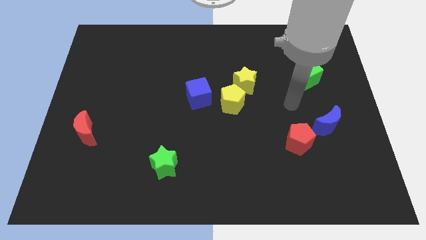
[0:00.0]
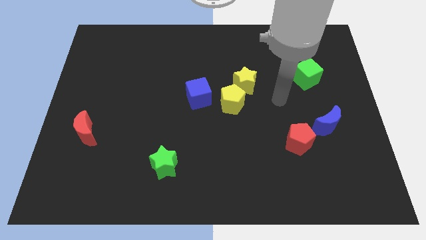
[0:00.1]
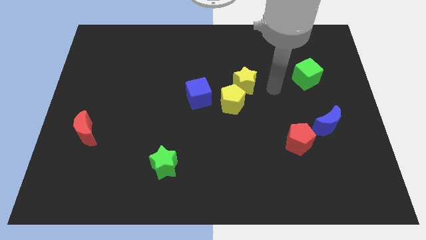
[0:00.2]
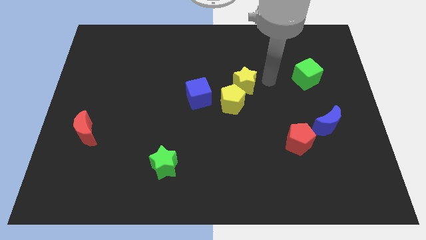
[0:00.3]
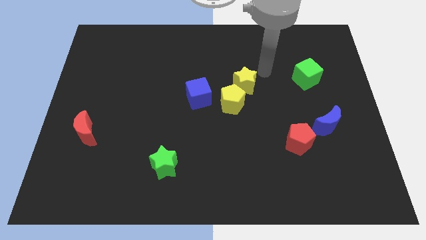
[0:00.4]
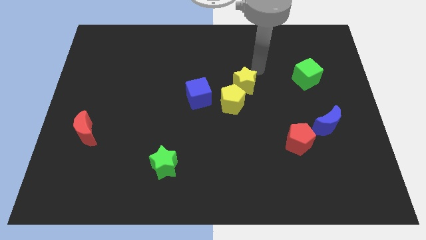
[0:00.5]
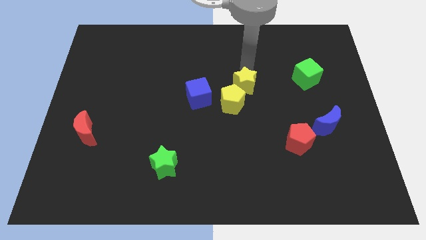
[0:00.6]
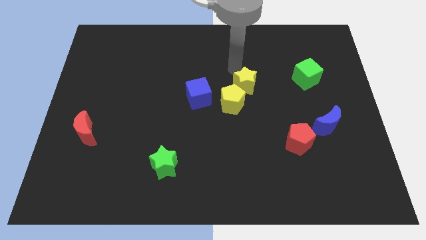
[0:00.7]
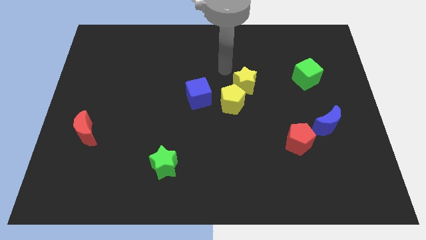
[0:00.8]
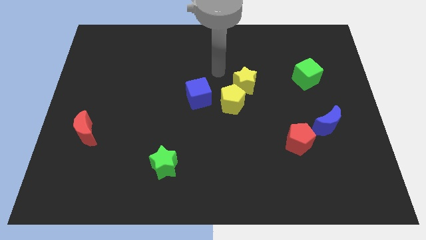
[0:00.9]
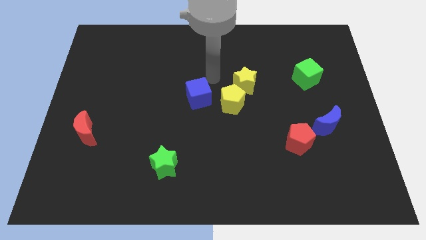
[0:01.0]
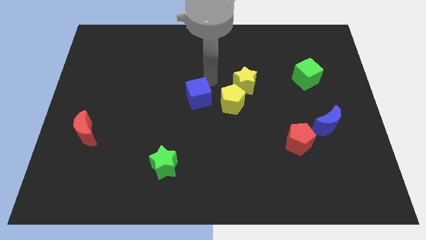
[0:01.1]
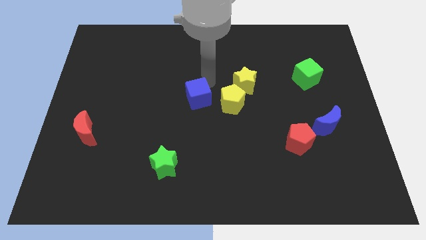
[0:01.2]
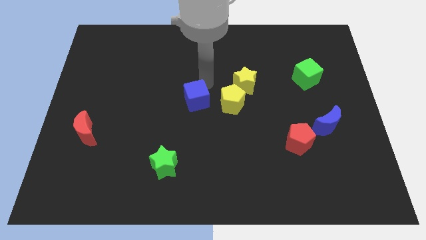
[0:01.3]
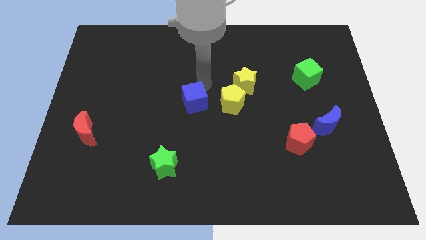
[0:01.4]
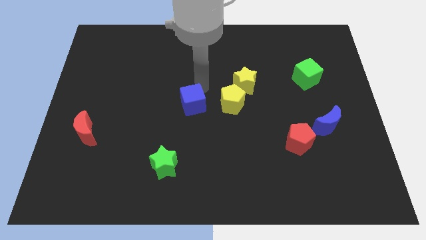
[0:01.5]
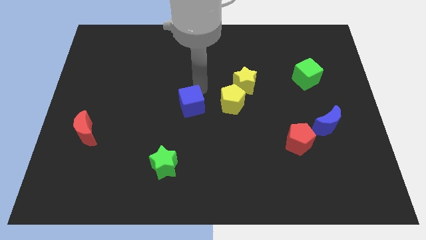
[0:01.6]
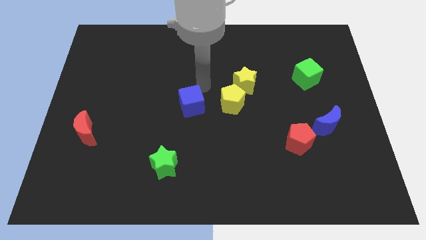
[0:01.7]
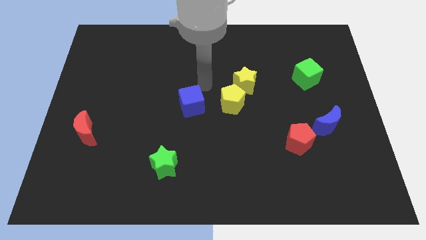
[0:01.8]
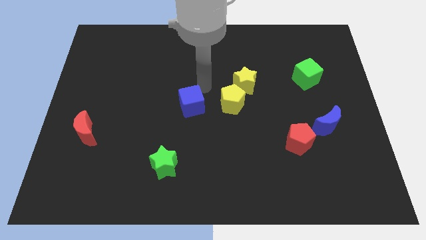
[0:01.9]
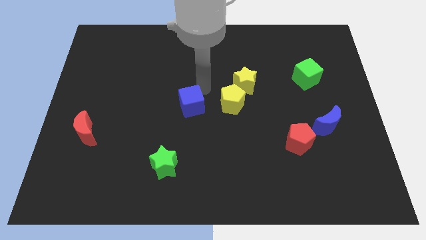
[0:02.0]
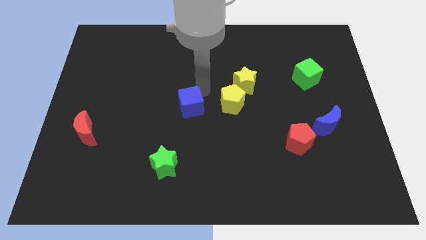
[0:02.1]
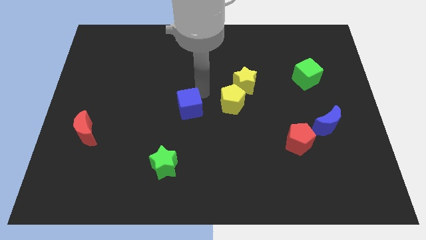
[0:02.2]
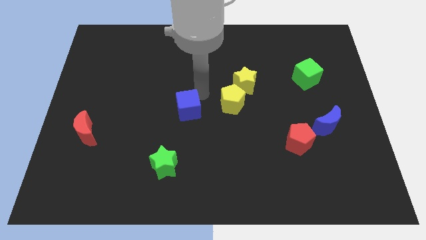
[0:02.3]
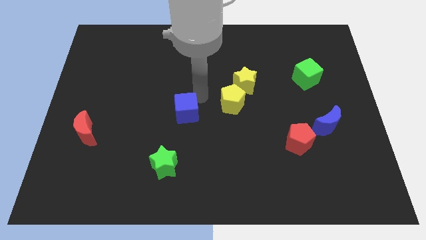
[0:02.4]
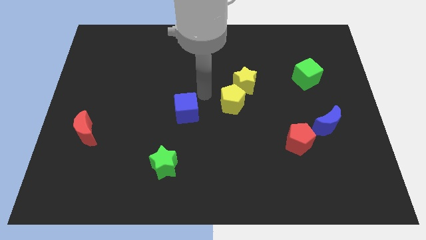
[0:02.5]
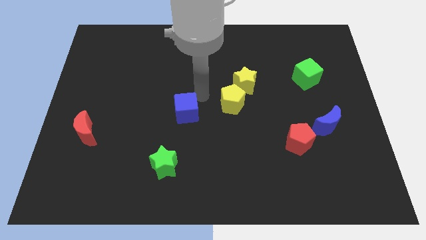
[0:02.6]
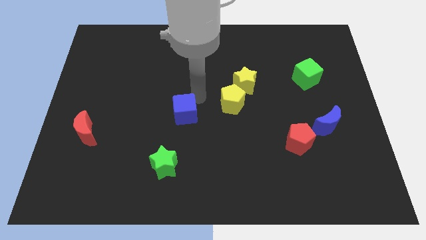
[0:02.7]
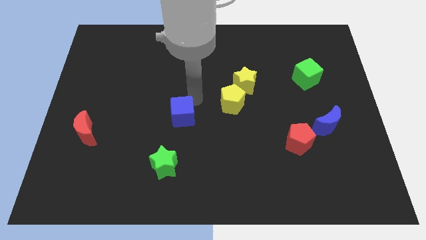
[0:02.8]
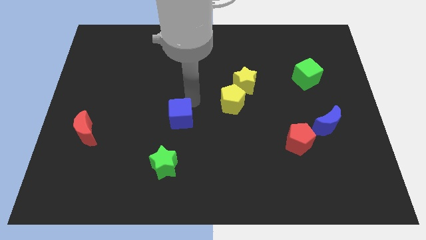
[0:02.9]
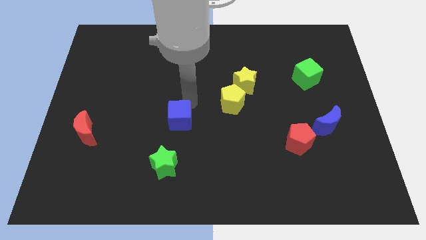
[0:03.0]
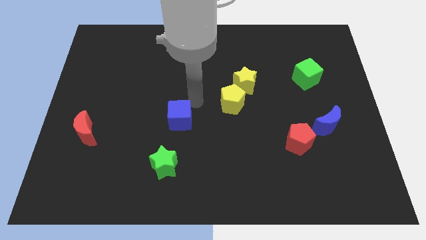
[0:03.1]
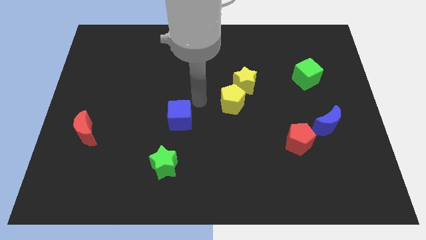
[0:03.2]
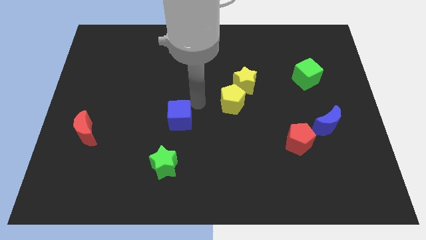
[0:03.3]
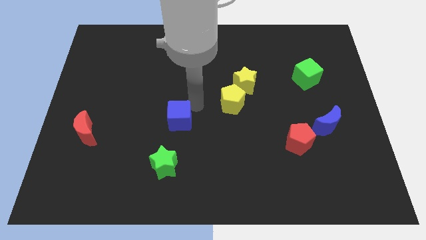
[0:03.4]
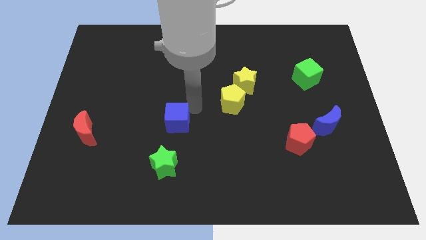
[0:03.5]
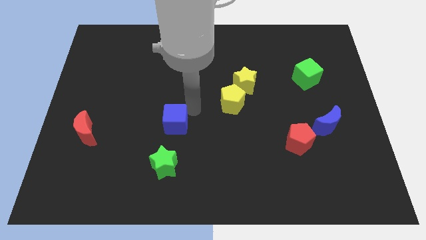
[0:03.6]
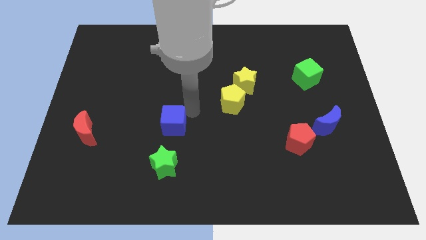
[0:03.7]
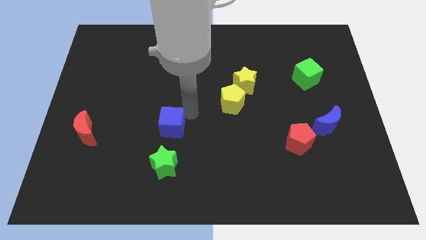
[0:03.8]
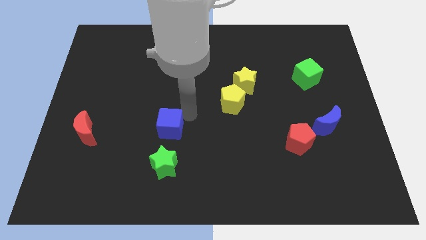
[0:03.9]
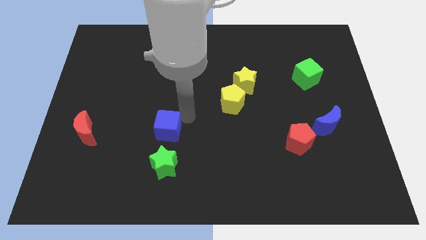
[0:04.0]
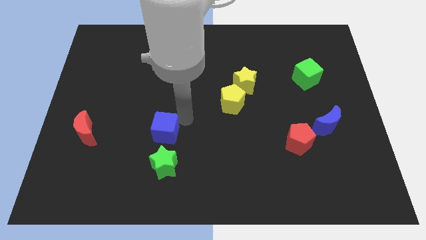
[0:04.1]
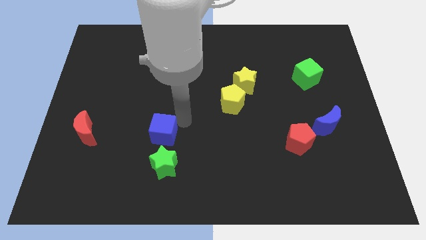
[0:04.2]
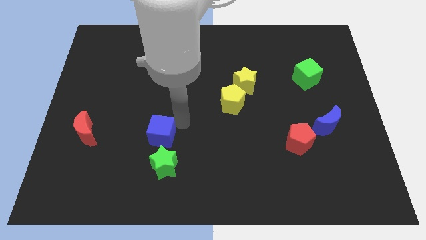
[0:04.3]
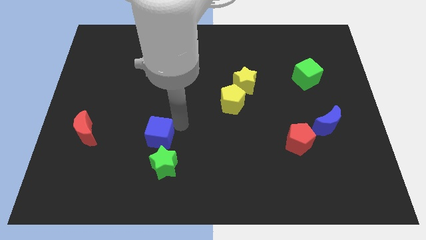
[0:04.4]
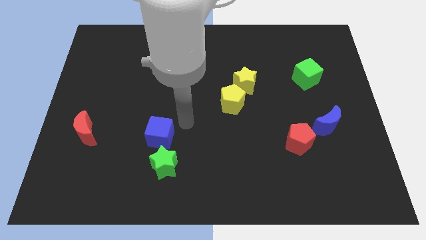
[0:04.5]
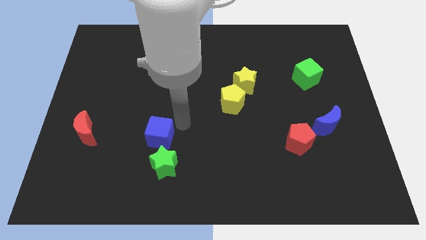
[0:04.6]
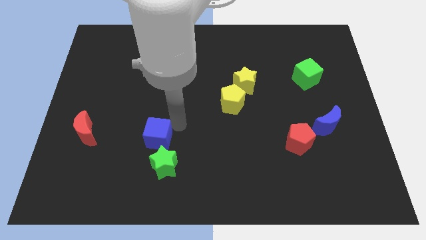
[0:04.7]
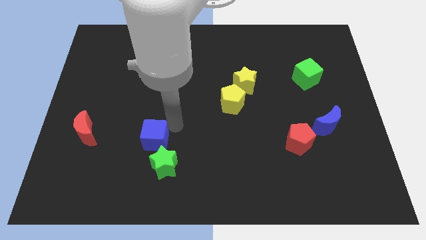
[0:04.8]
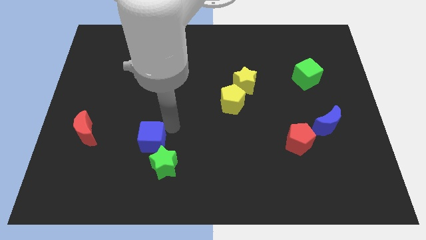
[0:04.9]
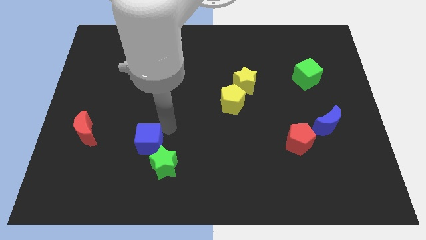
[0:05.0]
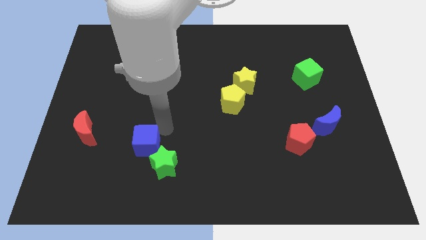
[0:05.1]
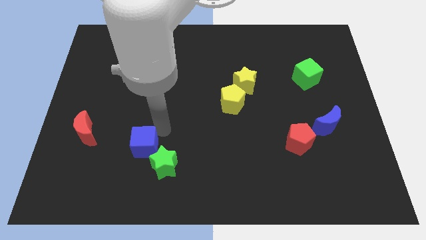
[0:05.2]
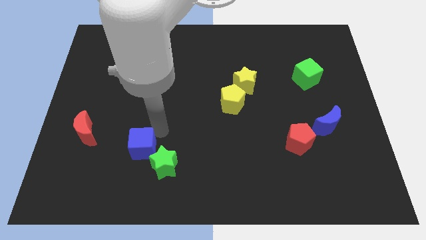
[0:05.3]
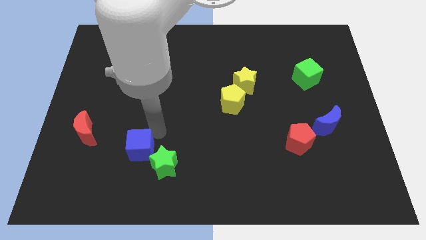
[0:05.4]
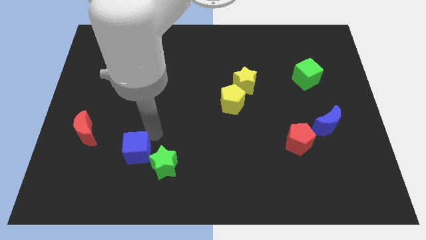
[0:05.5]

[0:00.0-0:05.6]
move the blue cube down and left

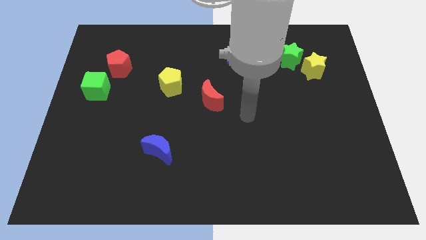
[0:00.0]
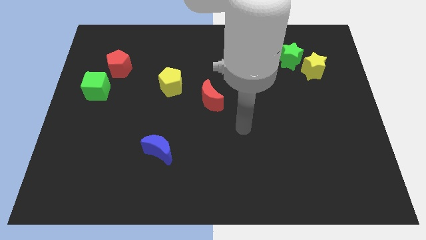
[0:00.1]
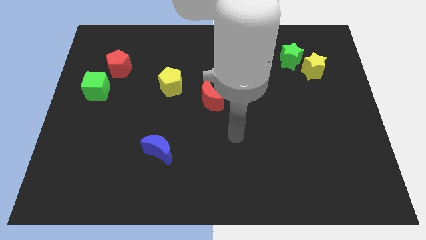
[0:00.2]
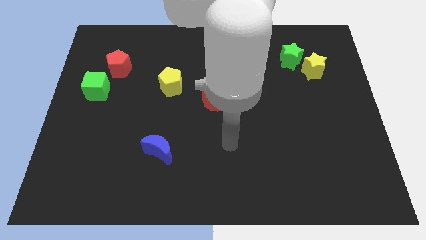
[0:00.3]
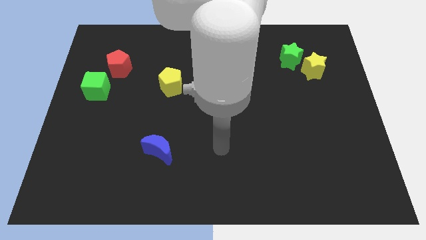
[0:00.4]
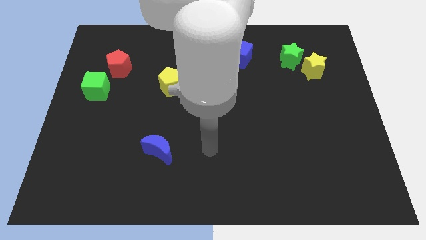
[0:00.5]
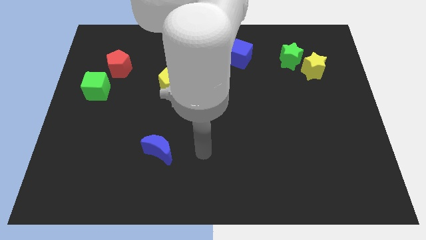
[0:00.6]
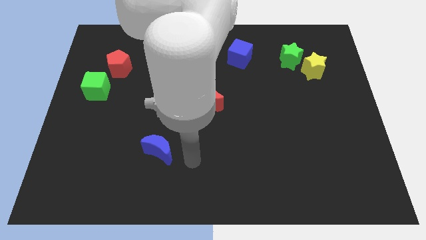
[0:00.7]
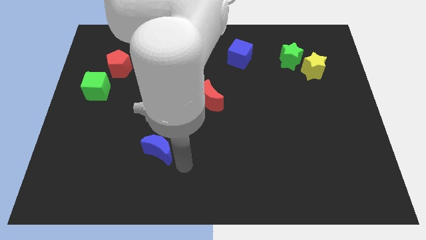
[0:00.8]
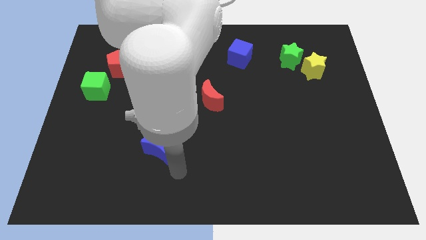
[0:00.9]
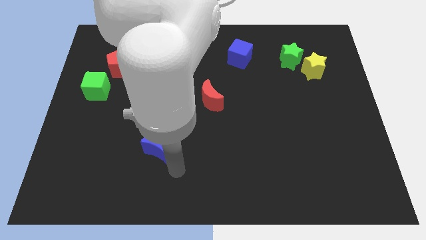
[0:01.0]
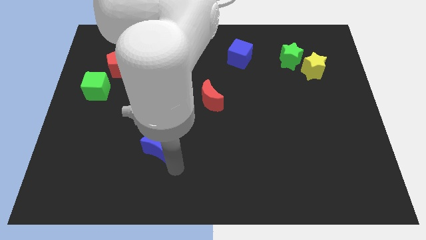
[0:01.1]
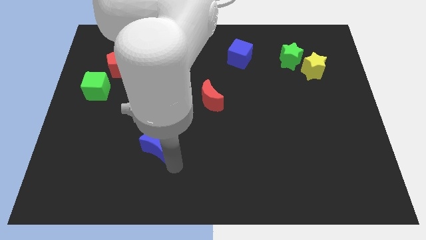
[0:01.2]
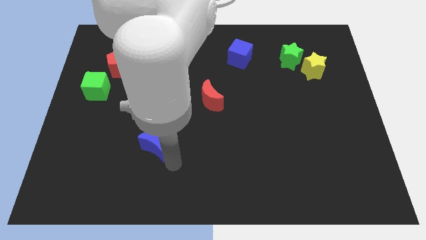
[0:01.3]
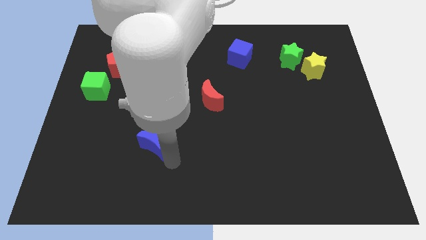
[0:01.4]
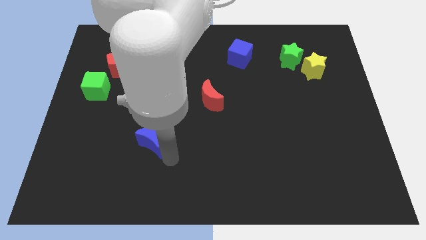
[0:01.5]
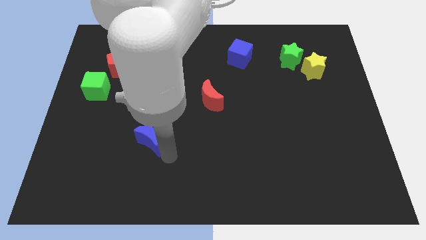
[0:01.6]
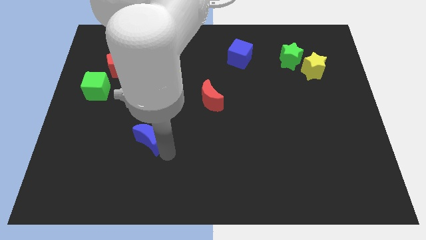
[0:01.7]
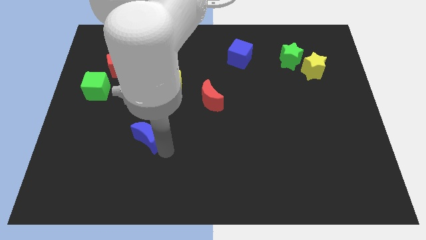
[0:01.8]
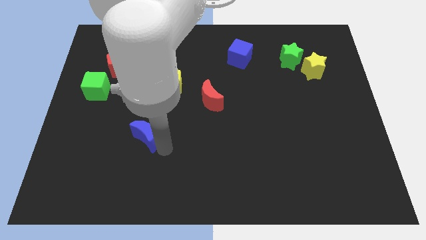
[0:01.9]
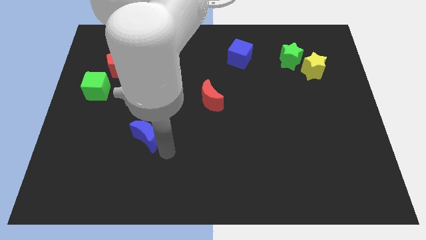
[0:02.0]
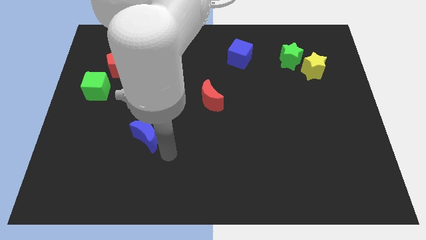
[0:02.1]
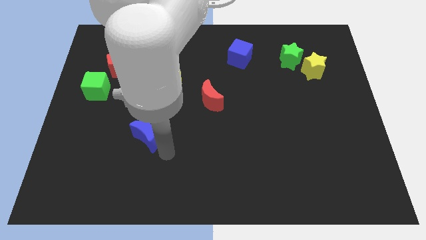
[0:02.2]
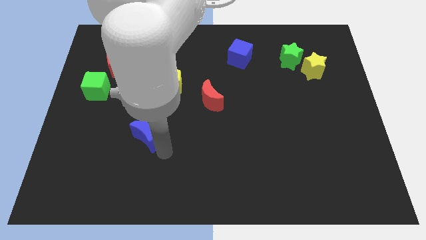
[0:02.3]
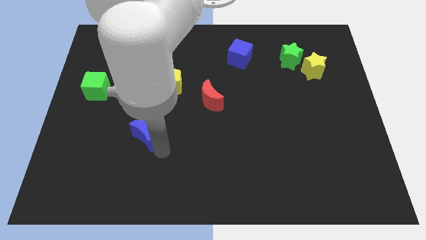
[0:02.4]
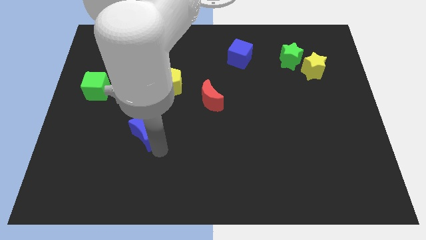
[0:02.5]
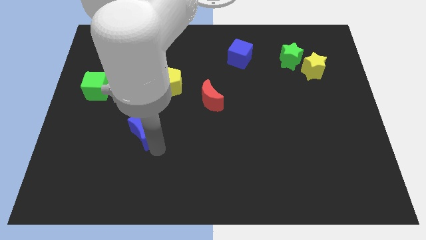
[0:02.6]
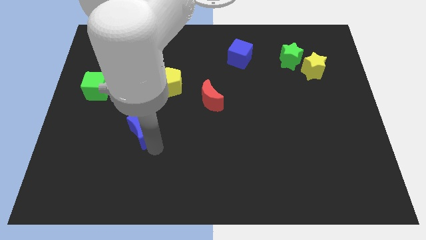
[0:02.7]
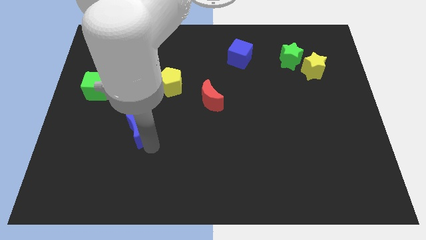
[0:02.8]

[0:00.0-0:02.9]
slide the blue moon upwards and left a bit

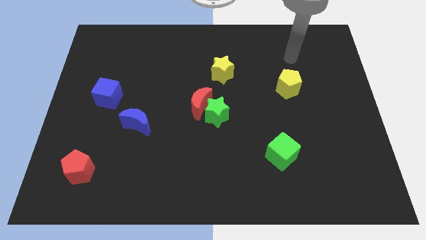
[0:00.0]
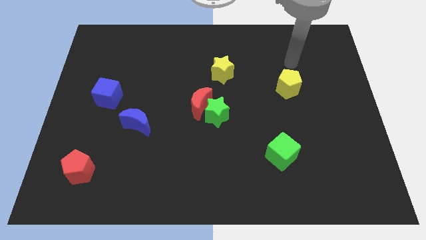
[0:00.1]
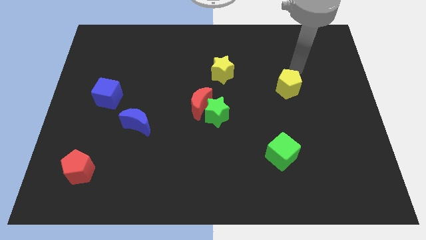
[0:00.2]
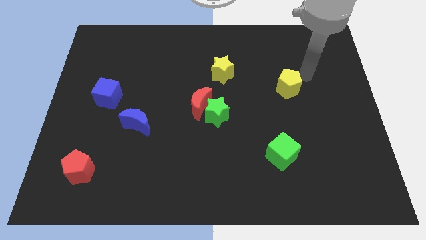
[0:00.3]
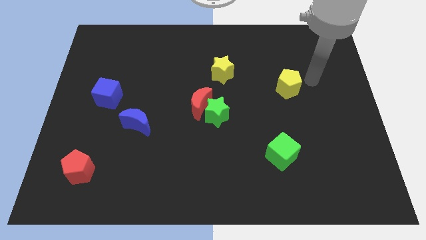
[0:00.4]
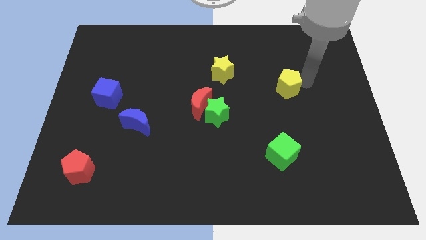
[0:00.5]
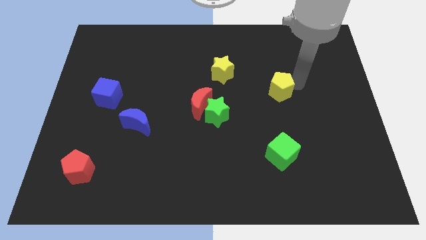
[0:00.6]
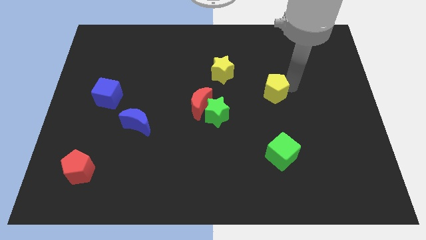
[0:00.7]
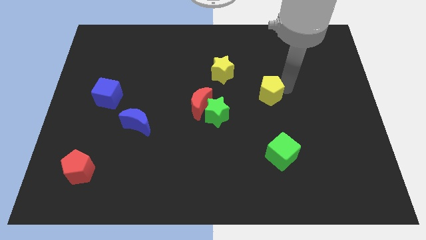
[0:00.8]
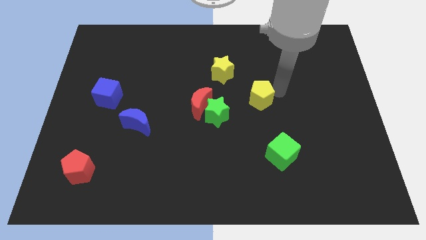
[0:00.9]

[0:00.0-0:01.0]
move the yellow pentagon slightly left
